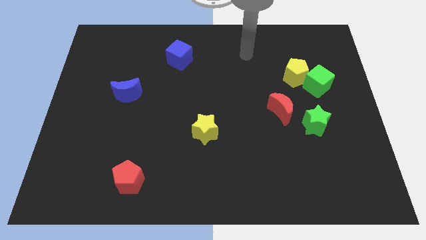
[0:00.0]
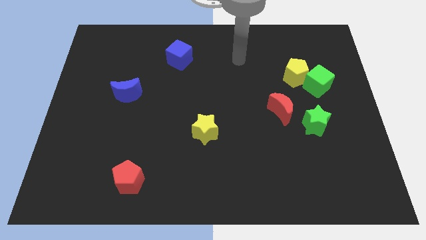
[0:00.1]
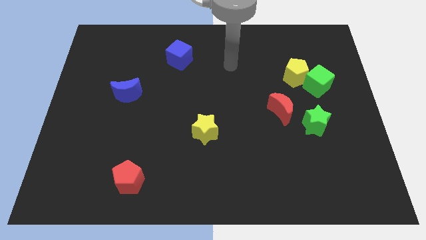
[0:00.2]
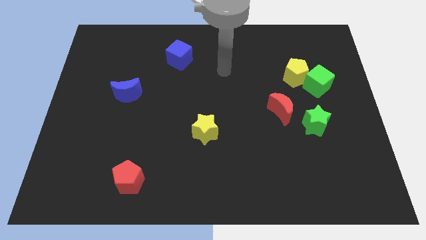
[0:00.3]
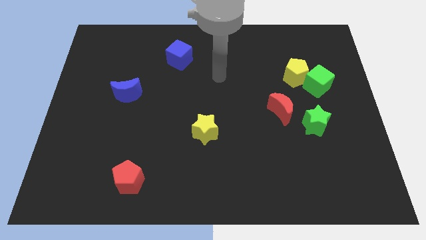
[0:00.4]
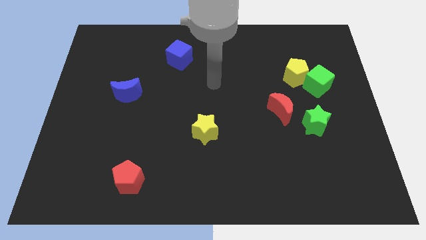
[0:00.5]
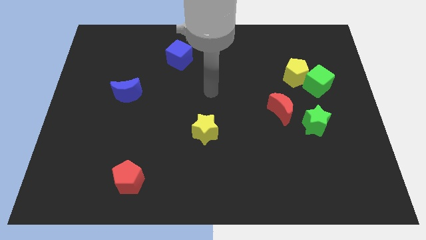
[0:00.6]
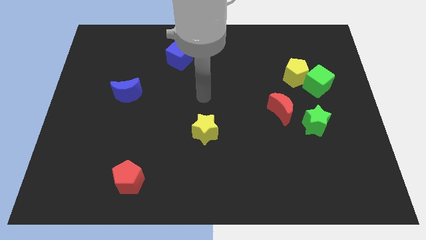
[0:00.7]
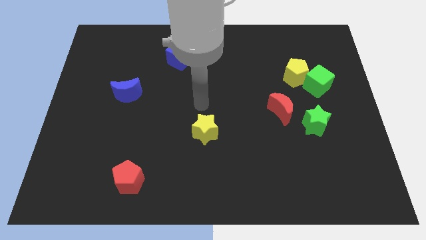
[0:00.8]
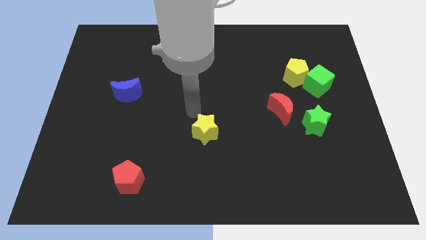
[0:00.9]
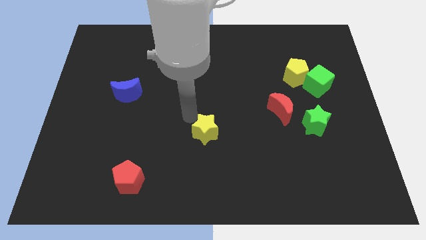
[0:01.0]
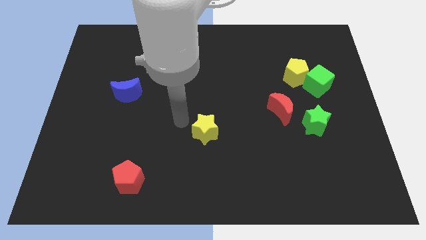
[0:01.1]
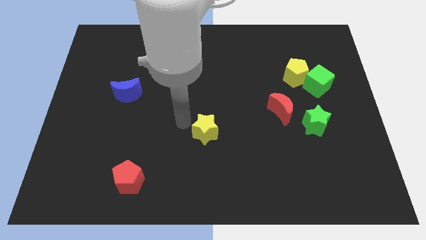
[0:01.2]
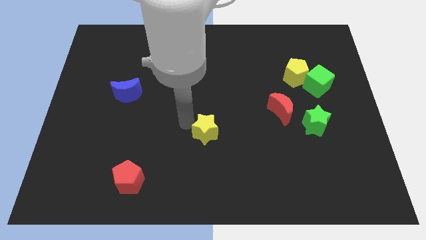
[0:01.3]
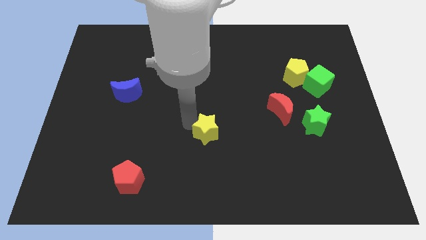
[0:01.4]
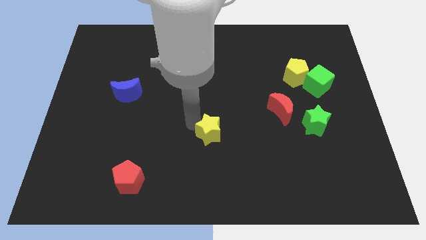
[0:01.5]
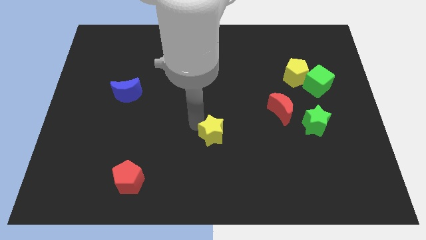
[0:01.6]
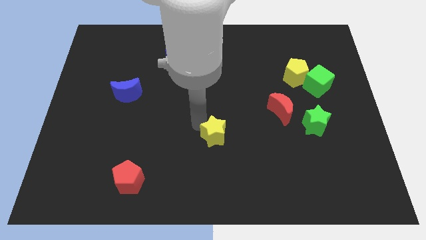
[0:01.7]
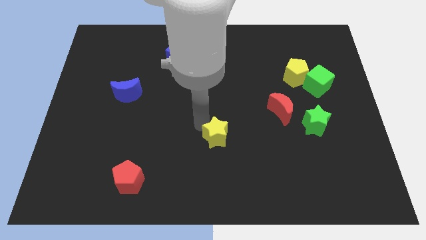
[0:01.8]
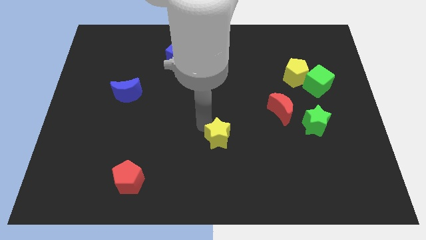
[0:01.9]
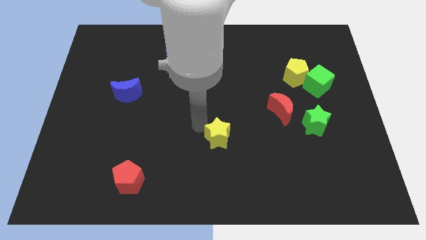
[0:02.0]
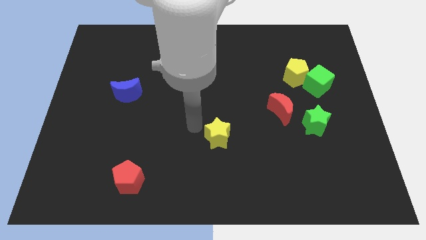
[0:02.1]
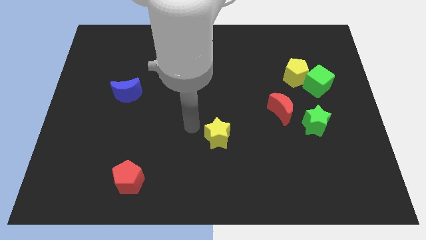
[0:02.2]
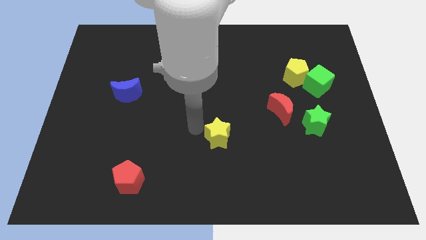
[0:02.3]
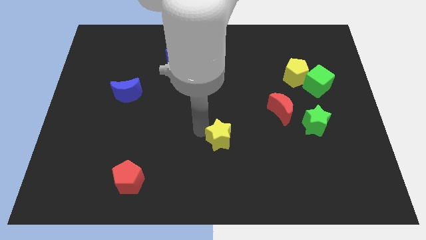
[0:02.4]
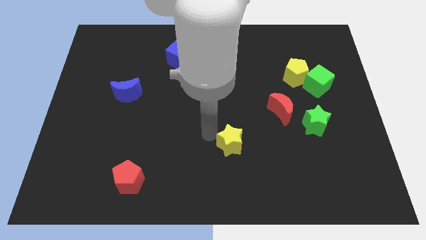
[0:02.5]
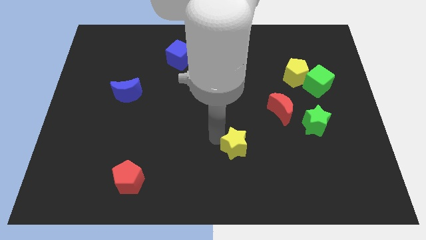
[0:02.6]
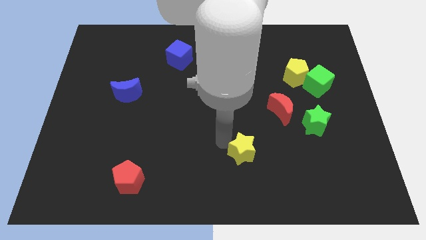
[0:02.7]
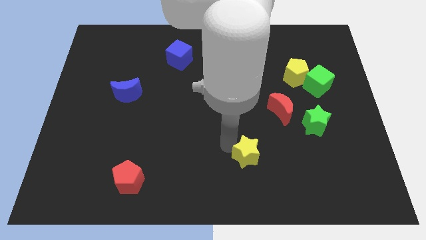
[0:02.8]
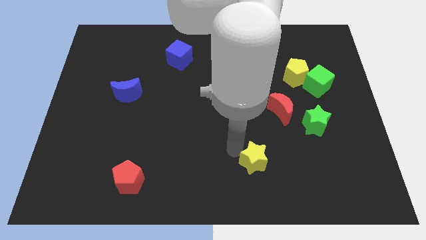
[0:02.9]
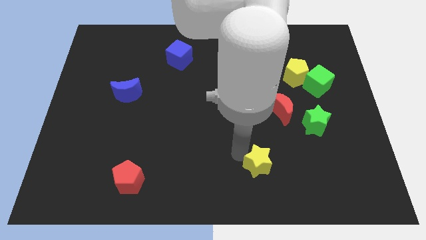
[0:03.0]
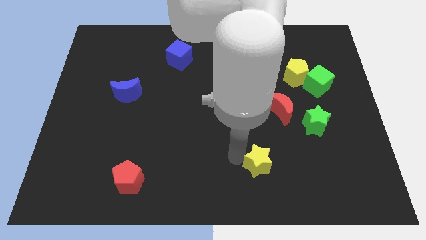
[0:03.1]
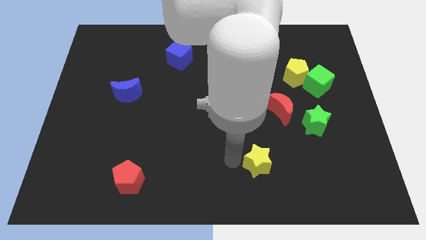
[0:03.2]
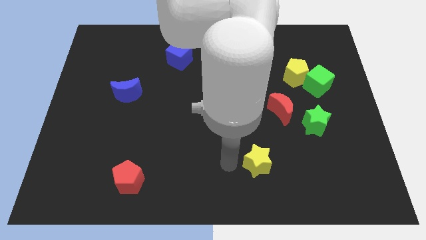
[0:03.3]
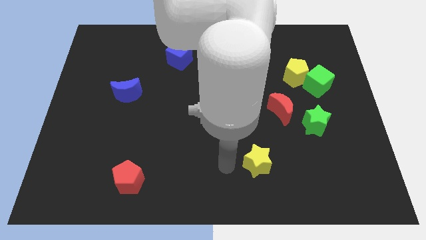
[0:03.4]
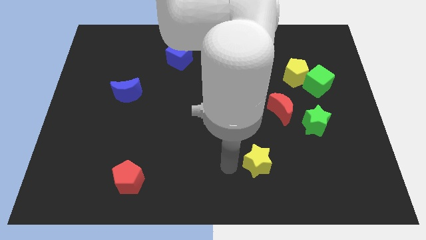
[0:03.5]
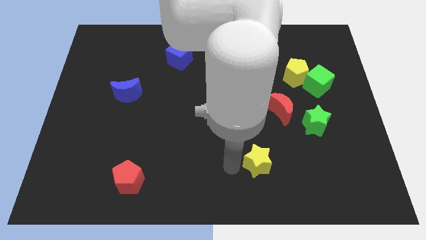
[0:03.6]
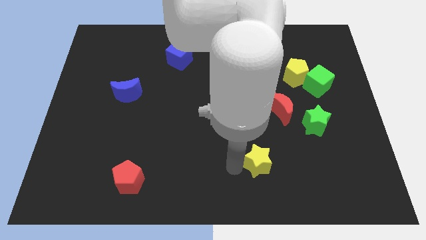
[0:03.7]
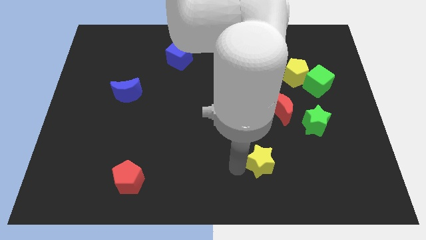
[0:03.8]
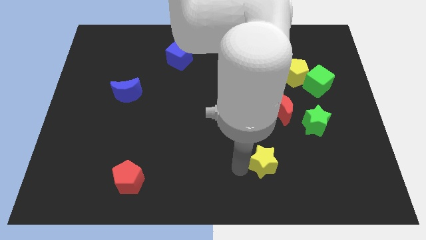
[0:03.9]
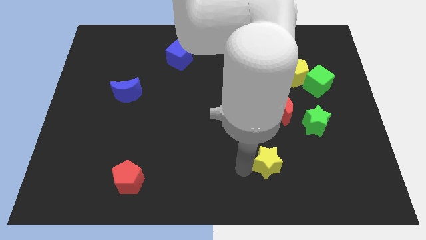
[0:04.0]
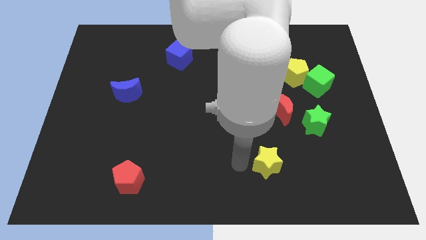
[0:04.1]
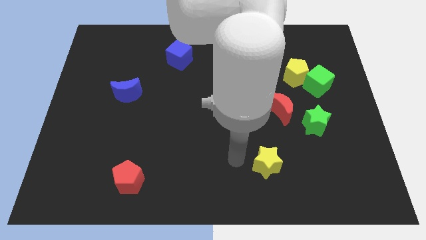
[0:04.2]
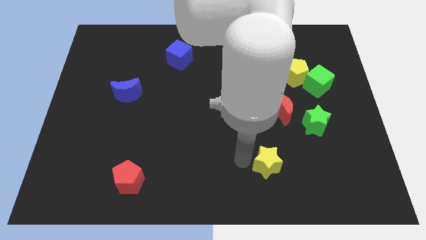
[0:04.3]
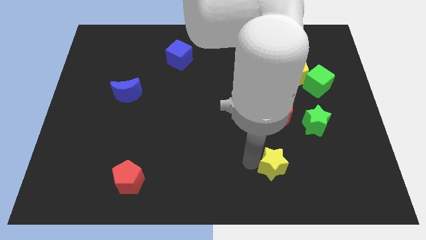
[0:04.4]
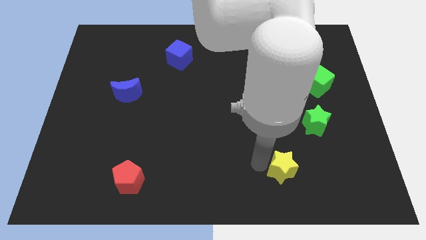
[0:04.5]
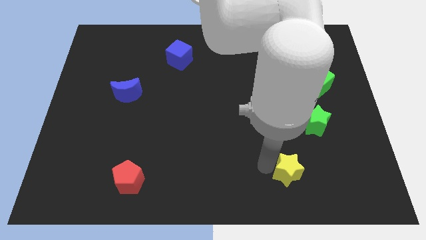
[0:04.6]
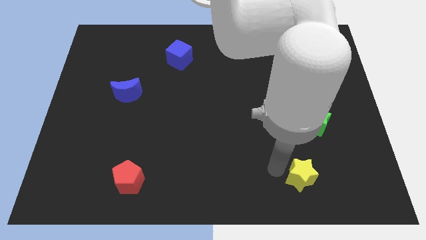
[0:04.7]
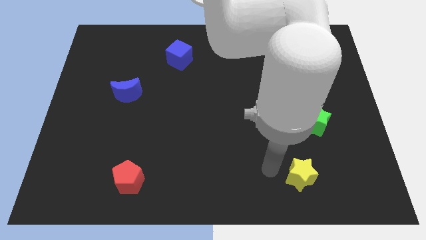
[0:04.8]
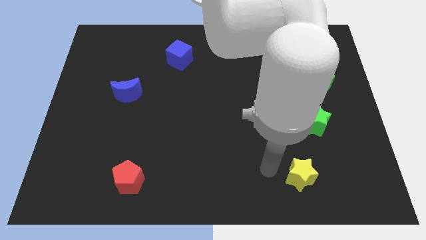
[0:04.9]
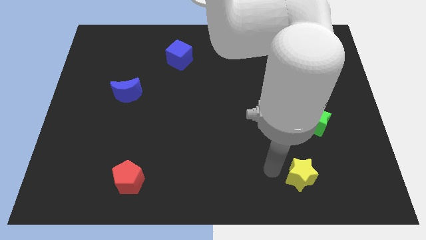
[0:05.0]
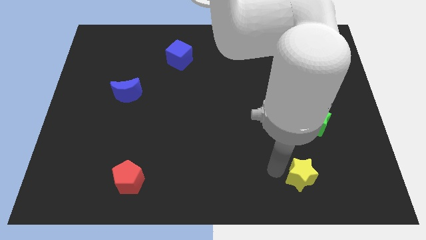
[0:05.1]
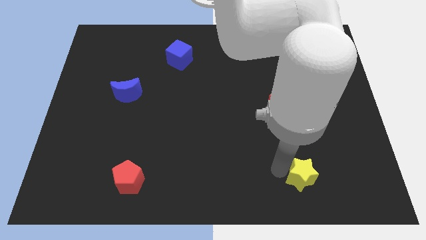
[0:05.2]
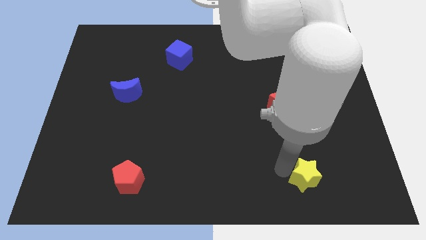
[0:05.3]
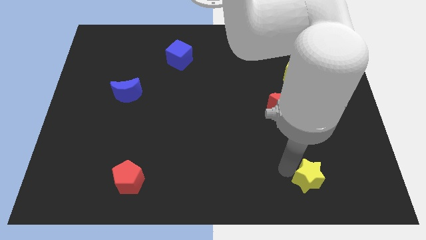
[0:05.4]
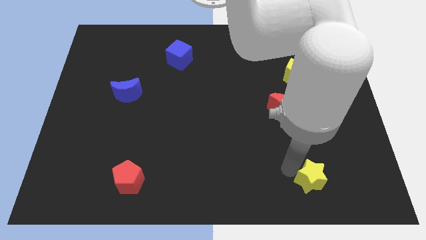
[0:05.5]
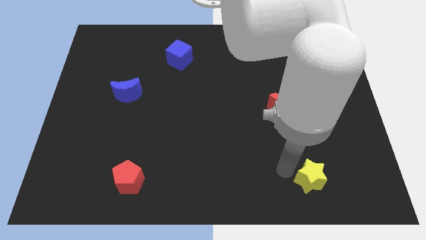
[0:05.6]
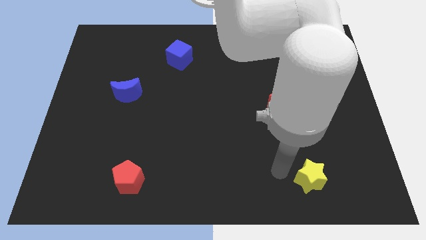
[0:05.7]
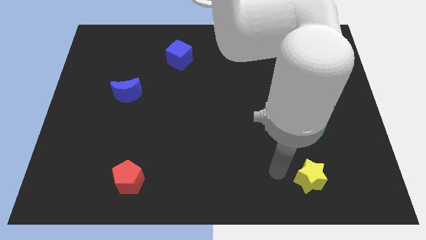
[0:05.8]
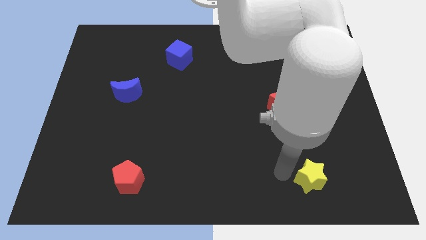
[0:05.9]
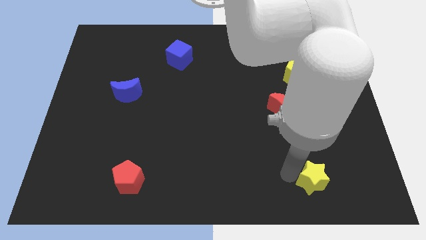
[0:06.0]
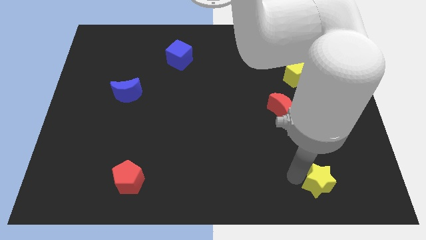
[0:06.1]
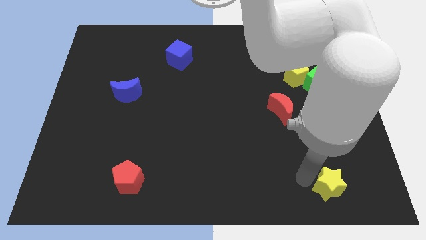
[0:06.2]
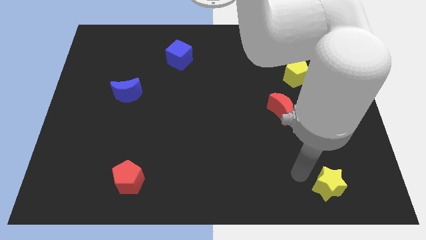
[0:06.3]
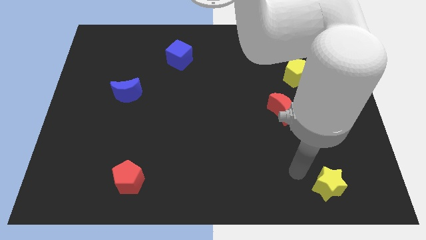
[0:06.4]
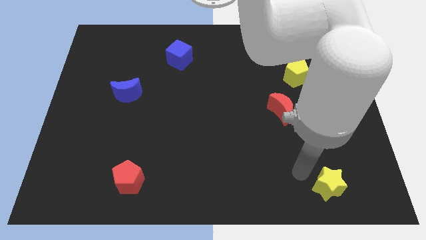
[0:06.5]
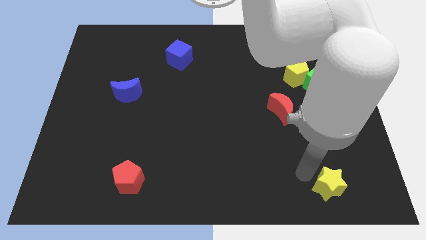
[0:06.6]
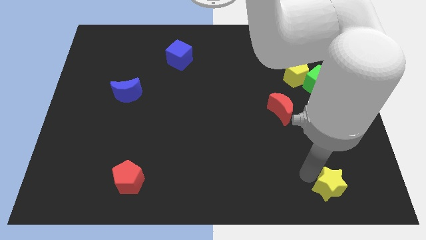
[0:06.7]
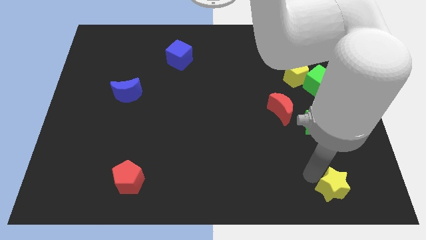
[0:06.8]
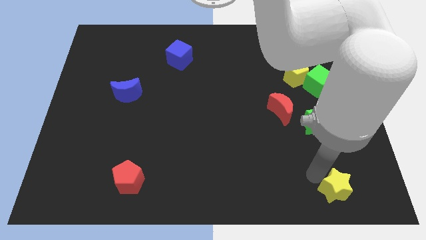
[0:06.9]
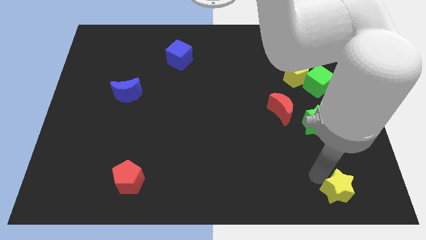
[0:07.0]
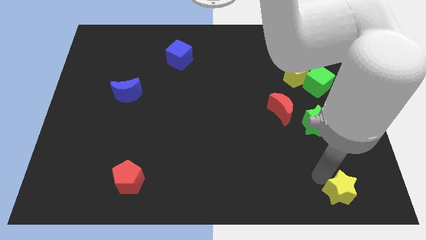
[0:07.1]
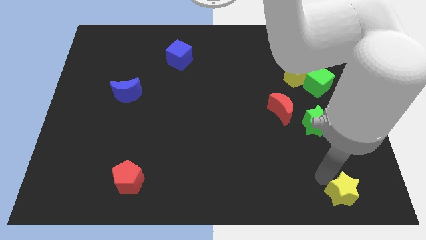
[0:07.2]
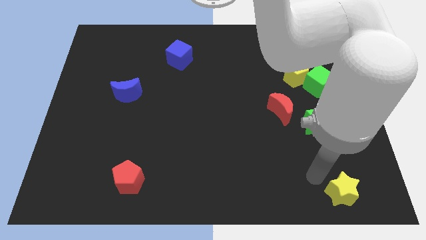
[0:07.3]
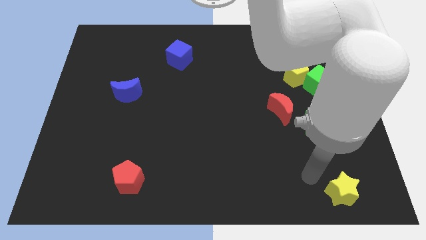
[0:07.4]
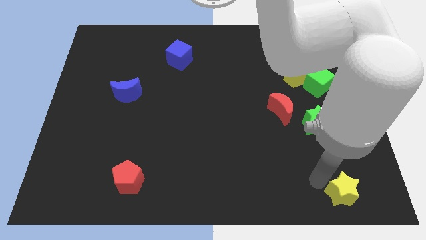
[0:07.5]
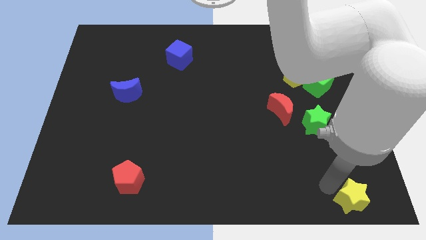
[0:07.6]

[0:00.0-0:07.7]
slide the yellow star to the bottom right

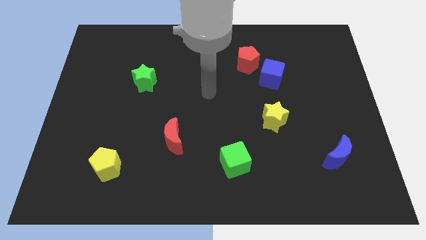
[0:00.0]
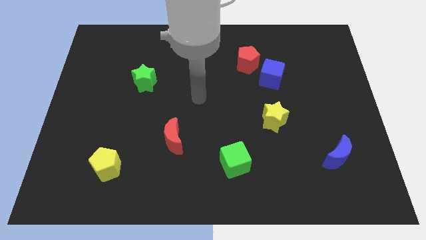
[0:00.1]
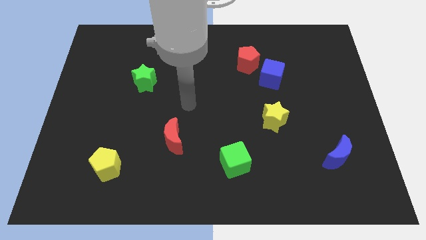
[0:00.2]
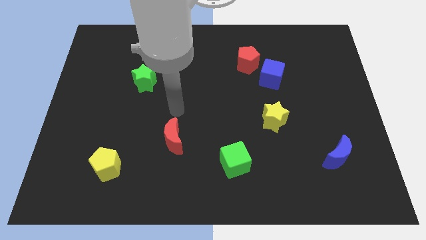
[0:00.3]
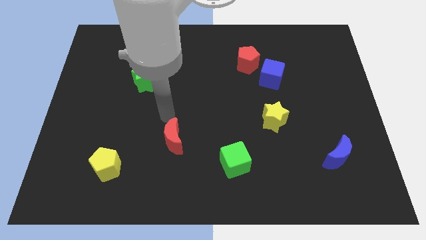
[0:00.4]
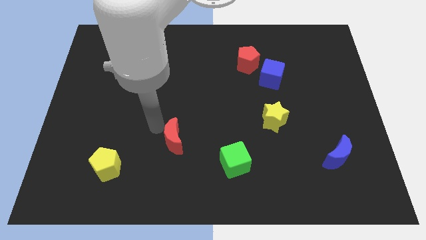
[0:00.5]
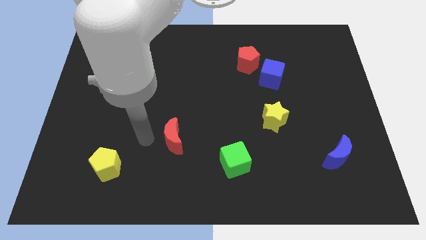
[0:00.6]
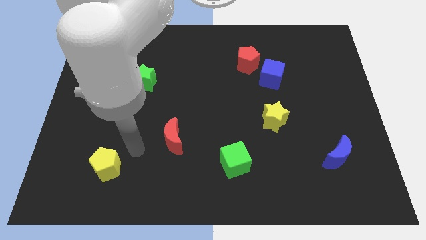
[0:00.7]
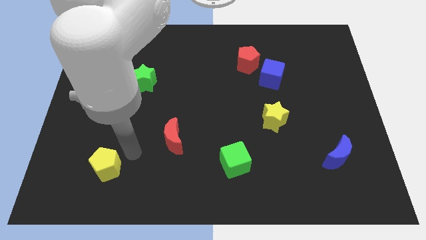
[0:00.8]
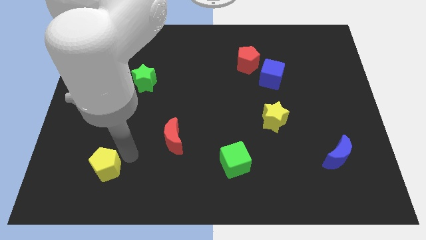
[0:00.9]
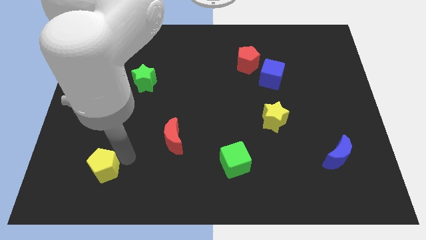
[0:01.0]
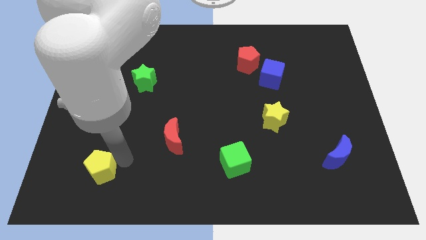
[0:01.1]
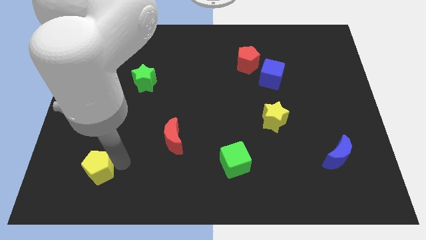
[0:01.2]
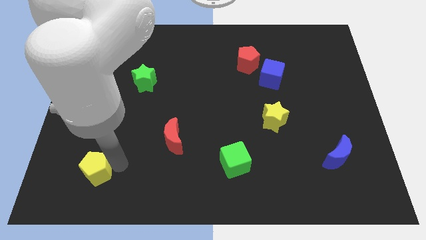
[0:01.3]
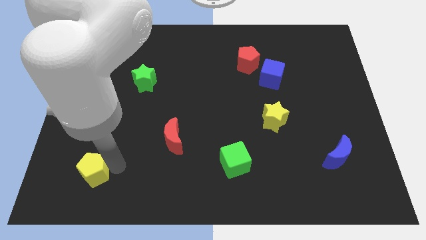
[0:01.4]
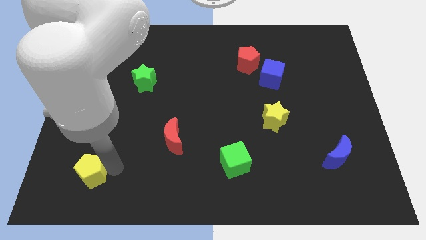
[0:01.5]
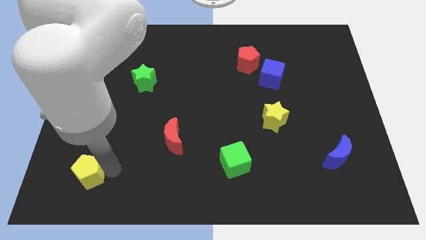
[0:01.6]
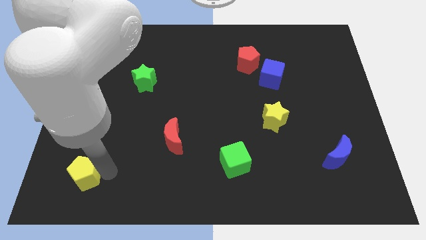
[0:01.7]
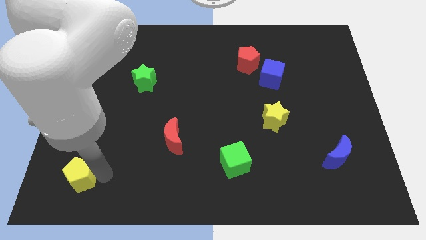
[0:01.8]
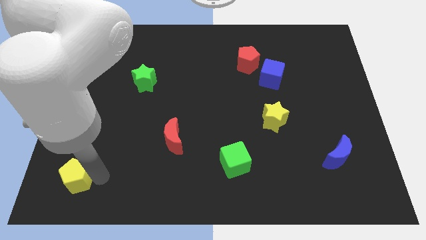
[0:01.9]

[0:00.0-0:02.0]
put the yellow pentagon to the lower left corner
